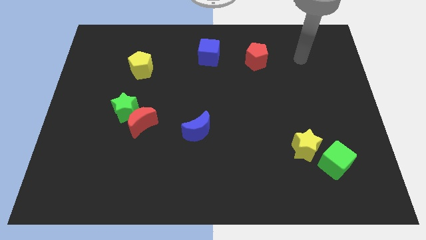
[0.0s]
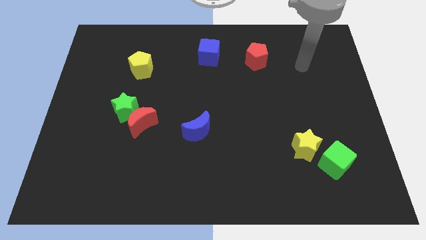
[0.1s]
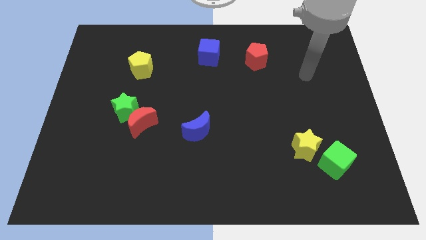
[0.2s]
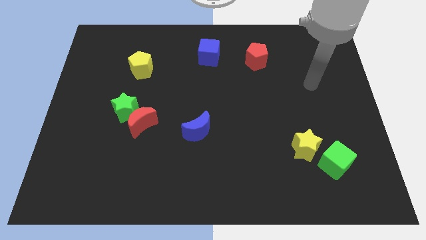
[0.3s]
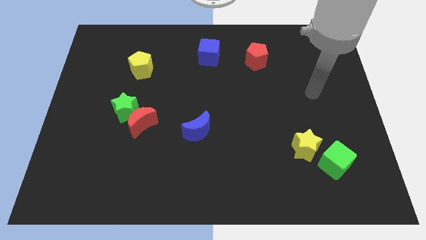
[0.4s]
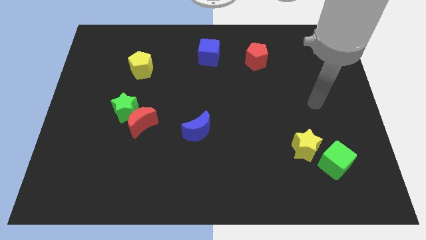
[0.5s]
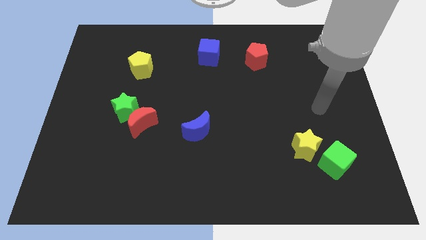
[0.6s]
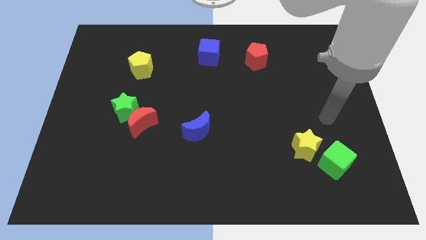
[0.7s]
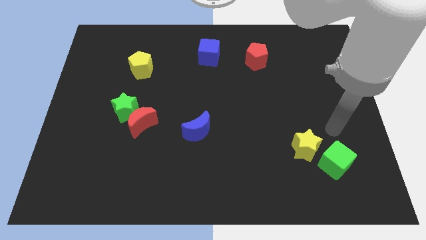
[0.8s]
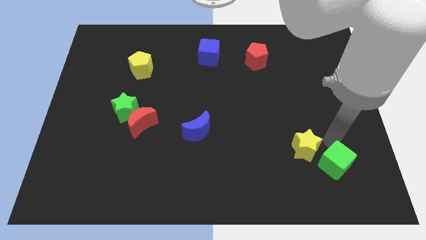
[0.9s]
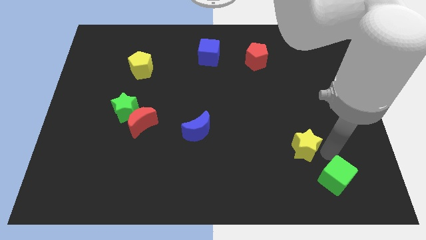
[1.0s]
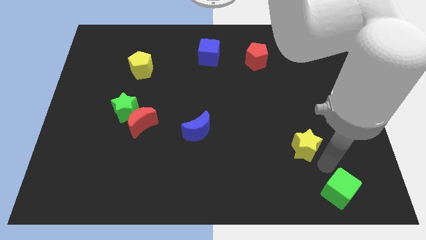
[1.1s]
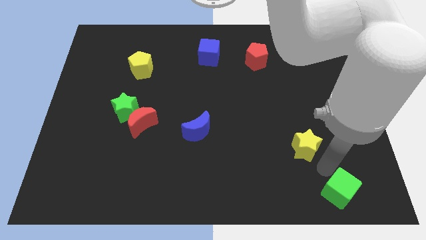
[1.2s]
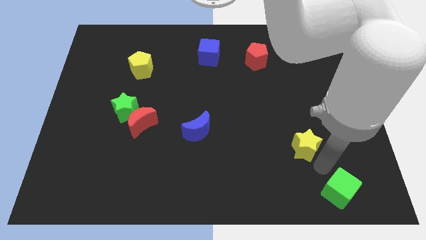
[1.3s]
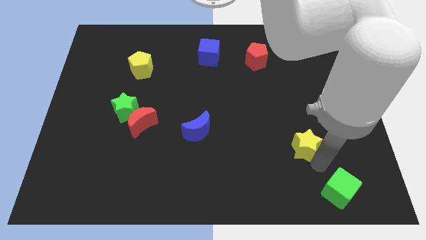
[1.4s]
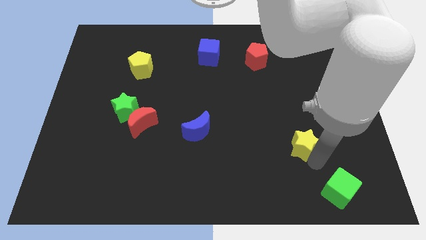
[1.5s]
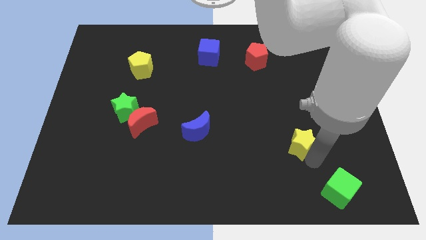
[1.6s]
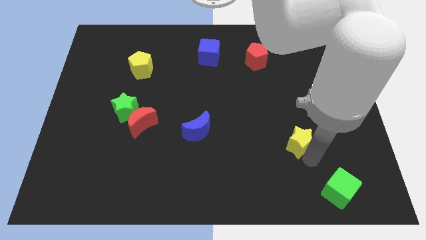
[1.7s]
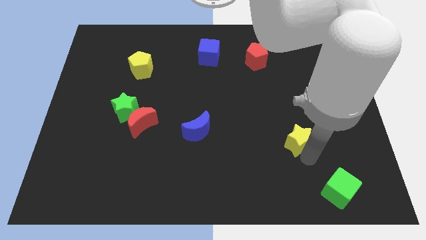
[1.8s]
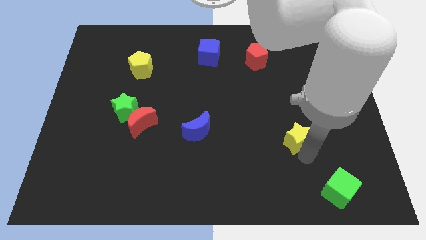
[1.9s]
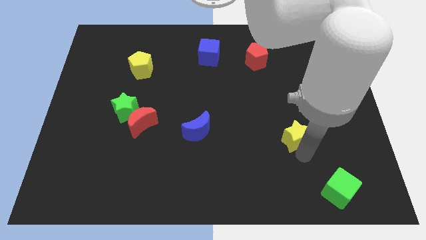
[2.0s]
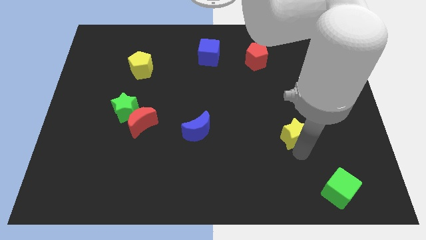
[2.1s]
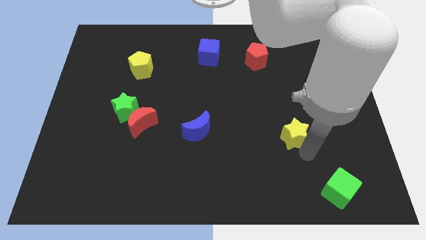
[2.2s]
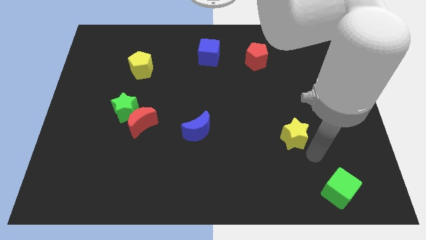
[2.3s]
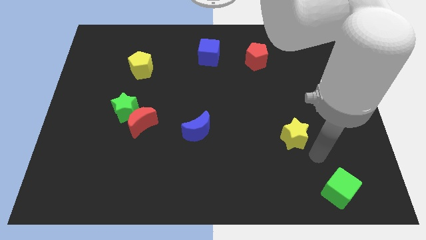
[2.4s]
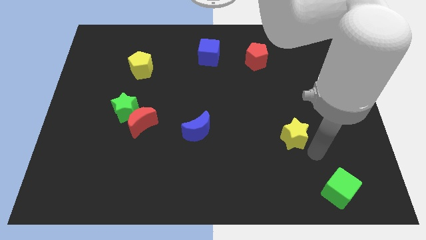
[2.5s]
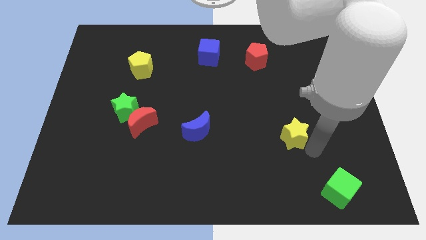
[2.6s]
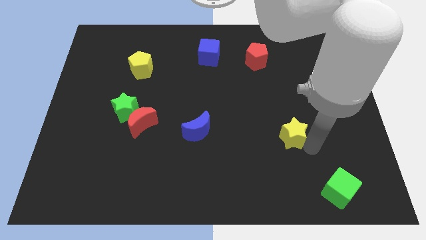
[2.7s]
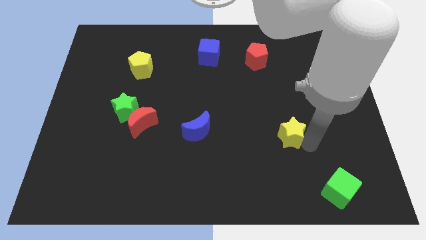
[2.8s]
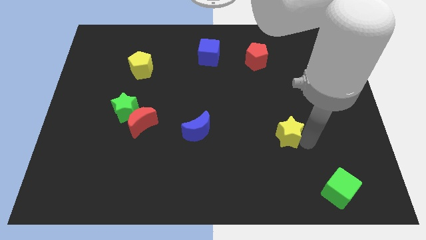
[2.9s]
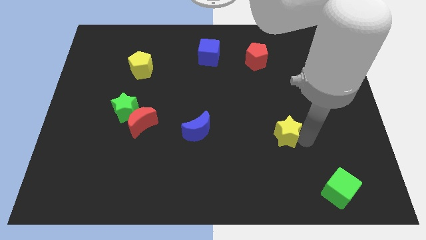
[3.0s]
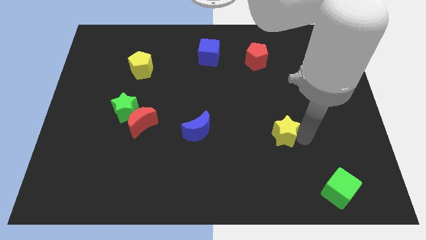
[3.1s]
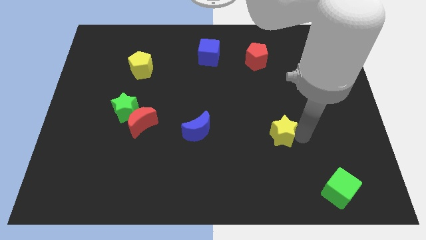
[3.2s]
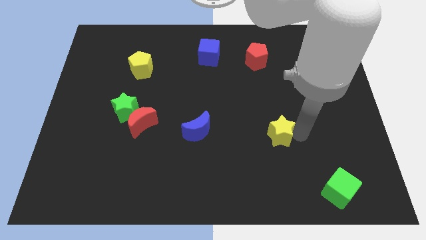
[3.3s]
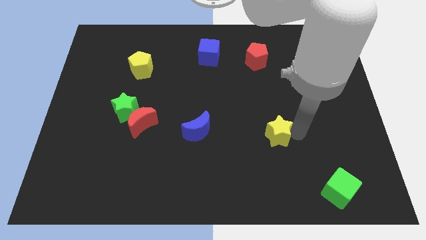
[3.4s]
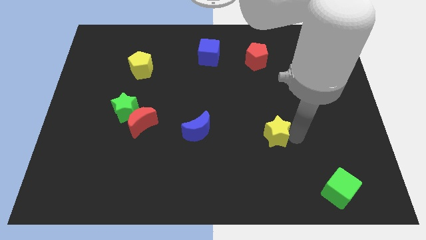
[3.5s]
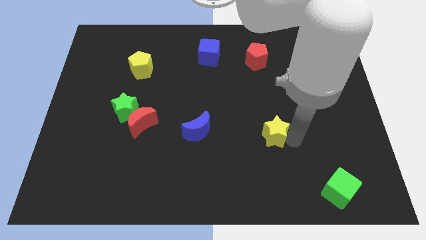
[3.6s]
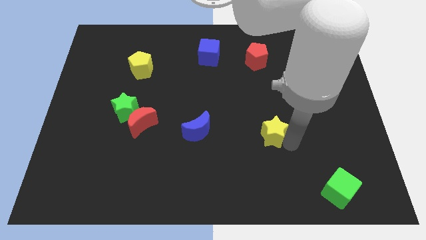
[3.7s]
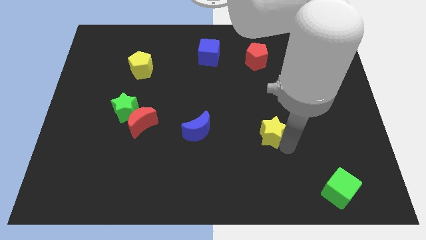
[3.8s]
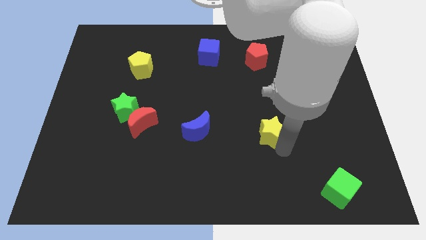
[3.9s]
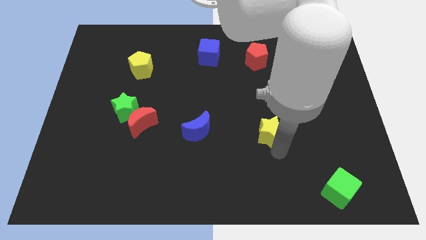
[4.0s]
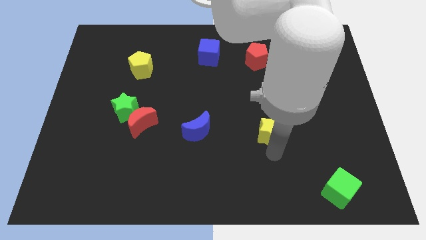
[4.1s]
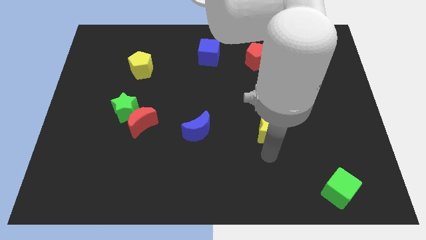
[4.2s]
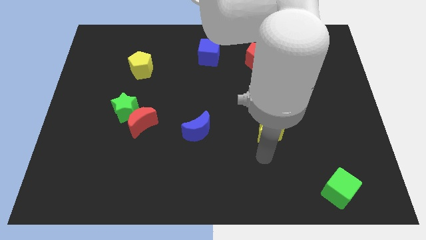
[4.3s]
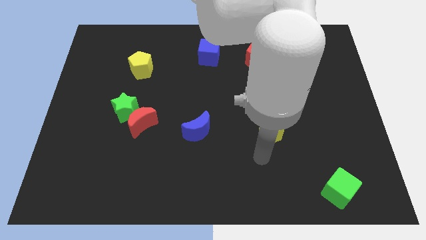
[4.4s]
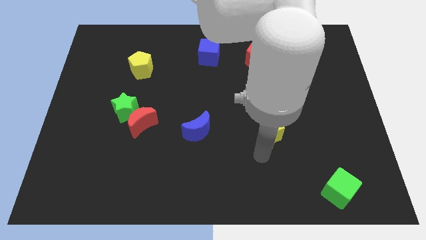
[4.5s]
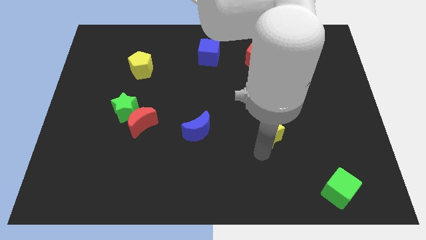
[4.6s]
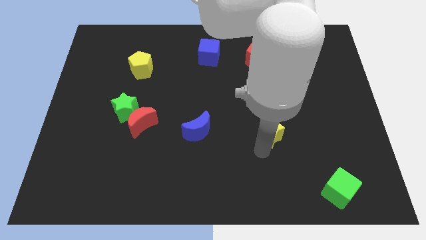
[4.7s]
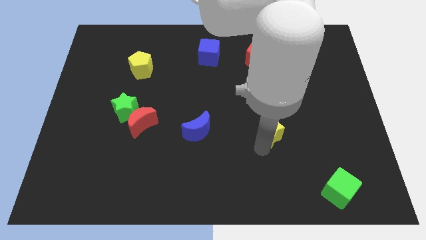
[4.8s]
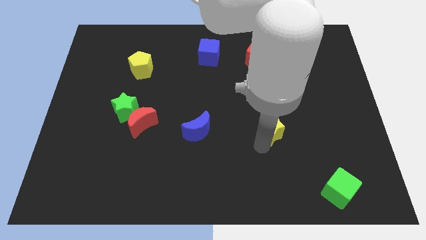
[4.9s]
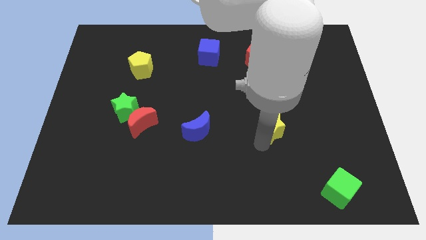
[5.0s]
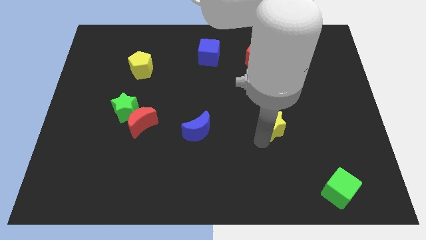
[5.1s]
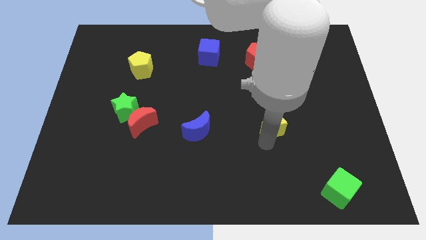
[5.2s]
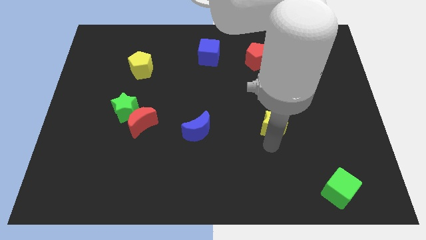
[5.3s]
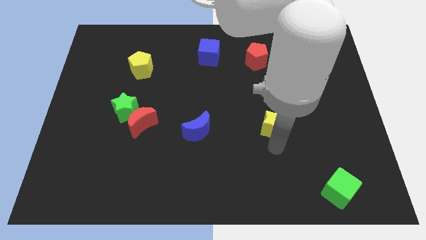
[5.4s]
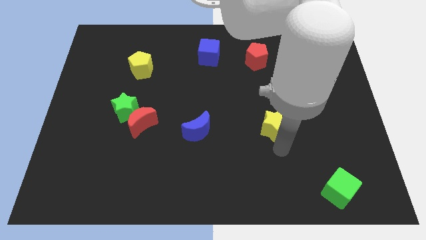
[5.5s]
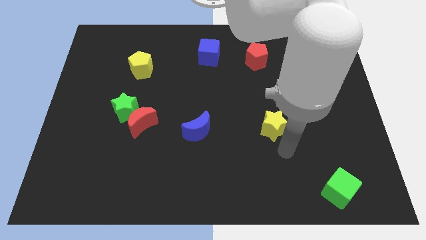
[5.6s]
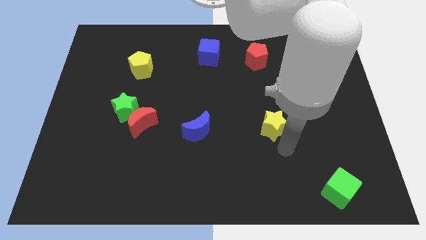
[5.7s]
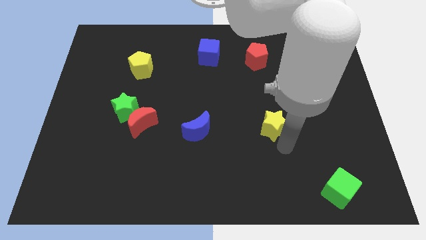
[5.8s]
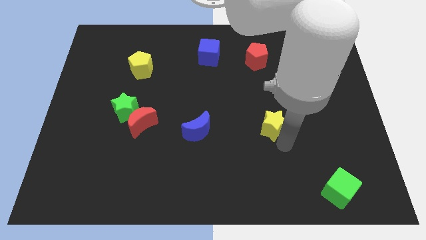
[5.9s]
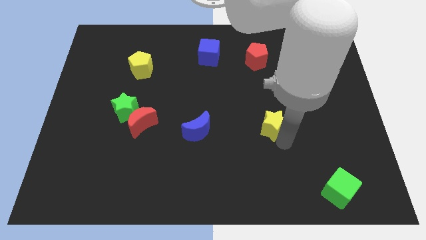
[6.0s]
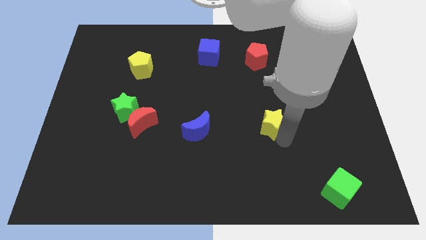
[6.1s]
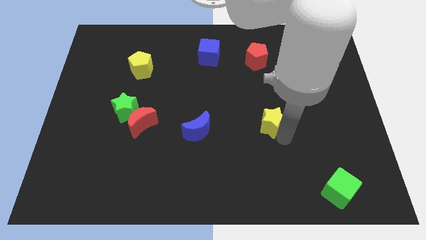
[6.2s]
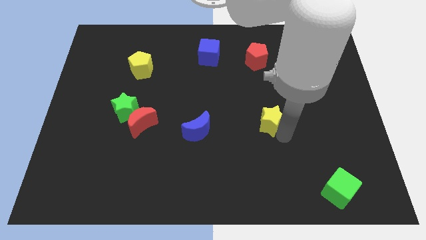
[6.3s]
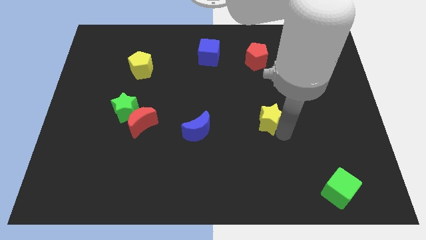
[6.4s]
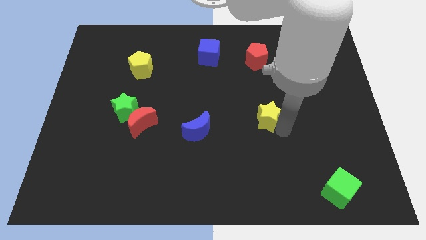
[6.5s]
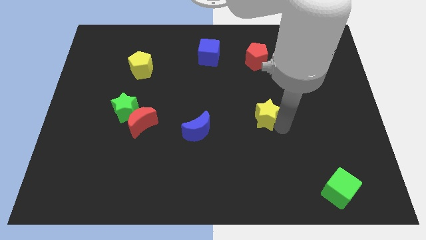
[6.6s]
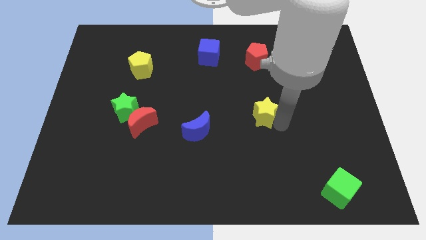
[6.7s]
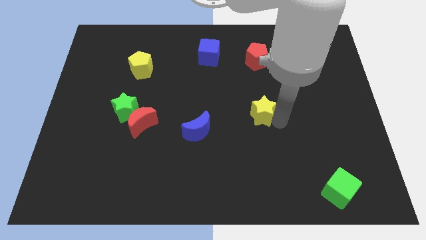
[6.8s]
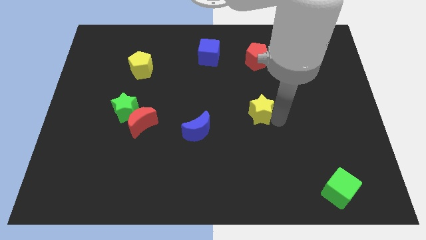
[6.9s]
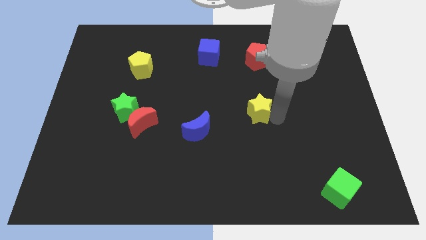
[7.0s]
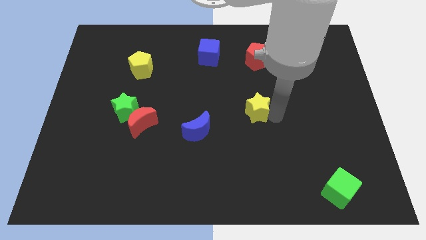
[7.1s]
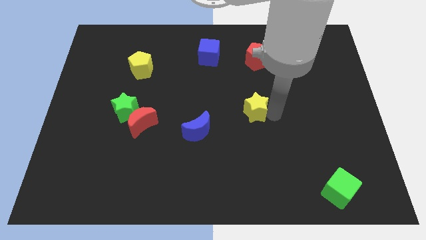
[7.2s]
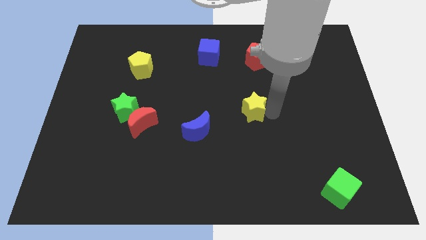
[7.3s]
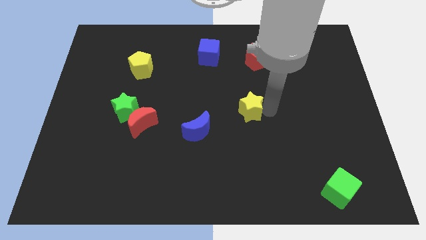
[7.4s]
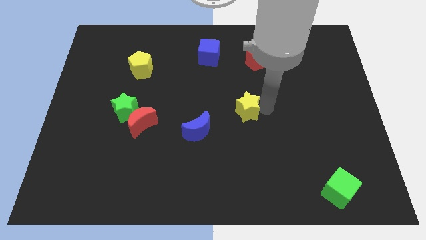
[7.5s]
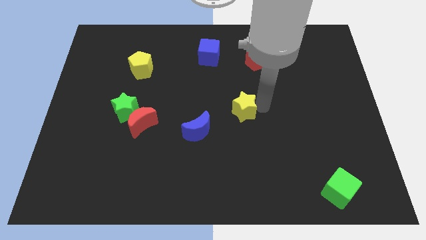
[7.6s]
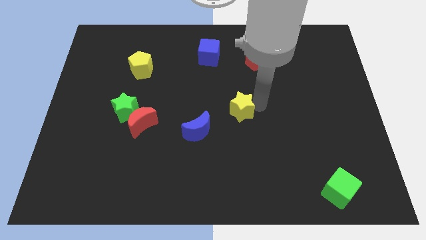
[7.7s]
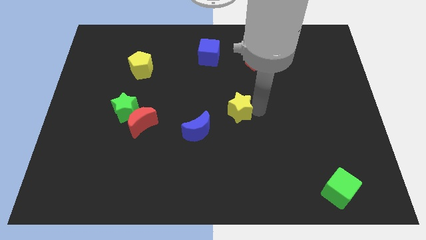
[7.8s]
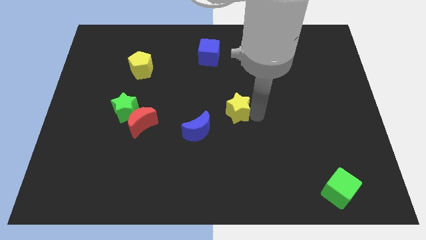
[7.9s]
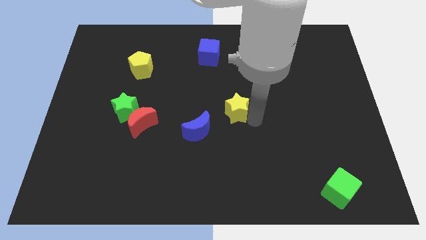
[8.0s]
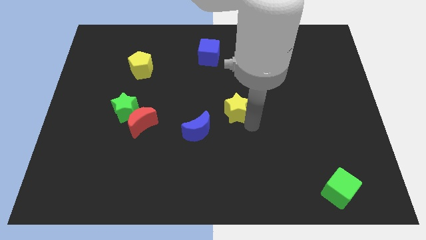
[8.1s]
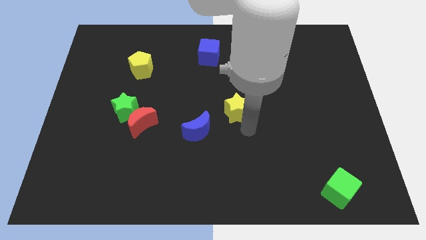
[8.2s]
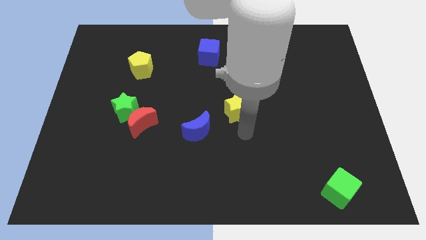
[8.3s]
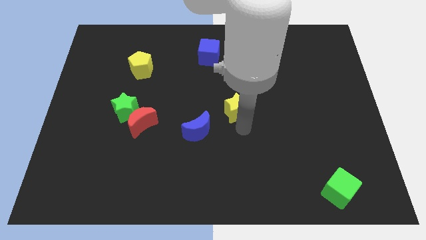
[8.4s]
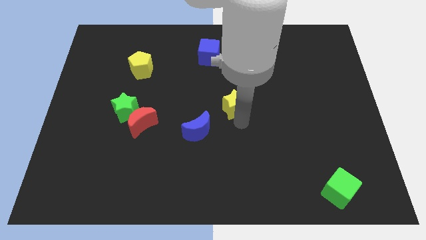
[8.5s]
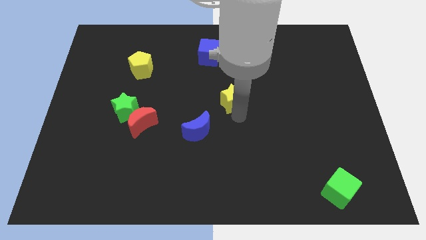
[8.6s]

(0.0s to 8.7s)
move the yellow star diagonally upwards and to the left
